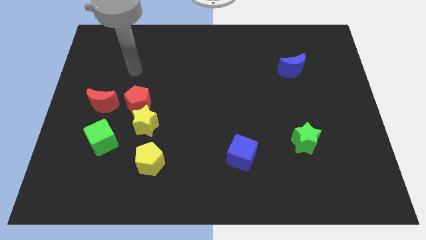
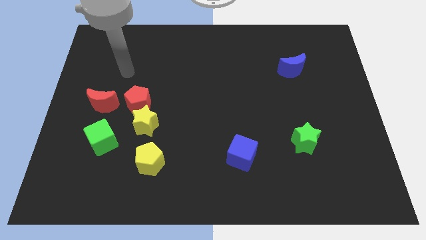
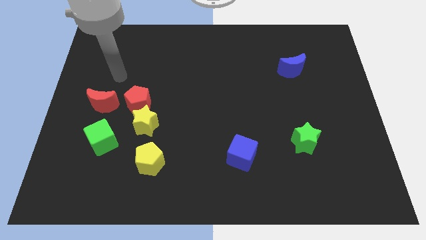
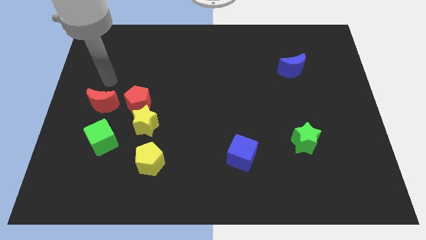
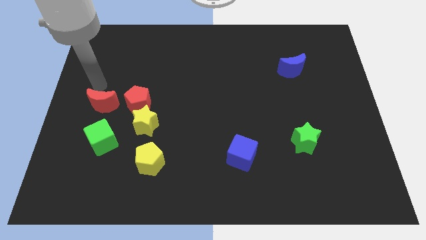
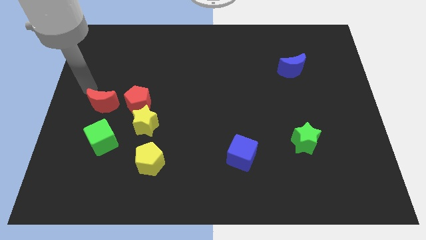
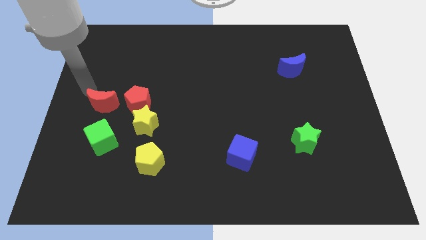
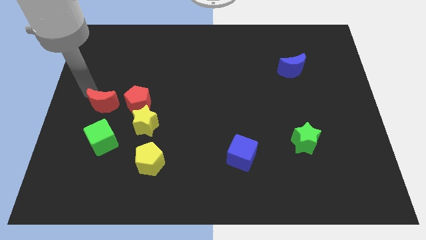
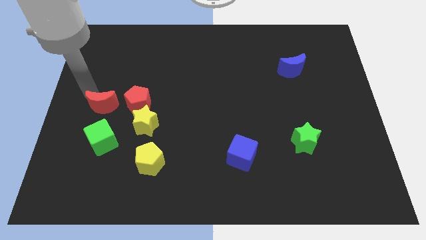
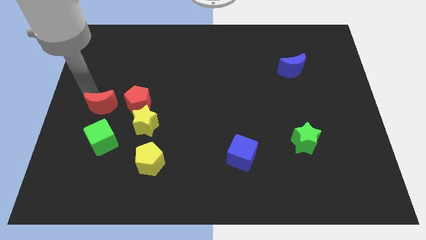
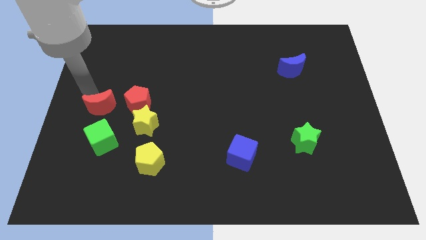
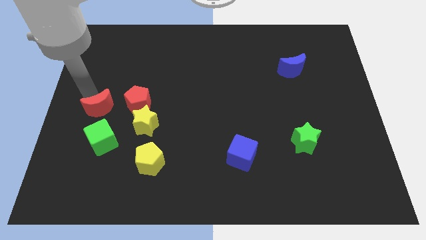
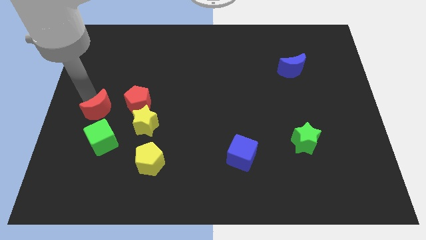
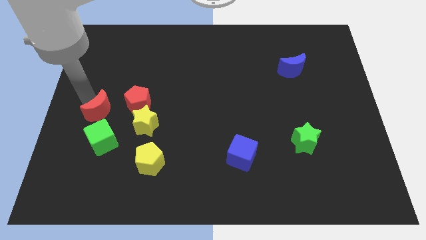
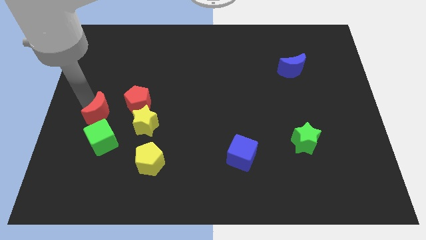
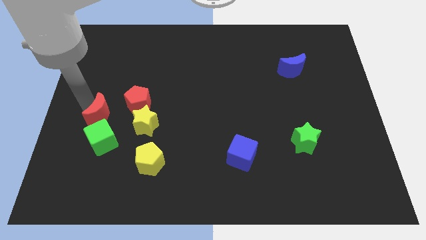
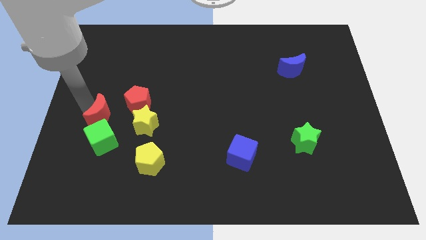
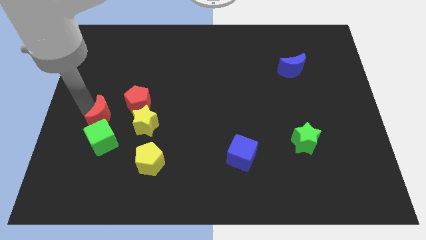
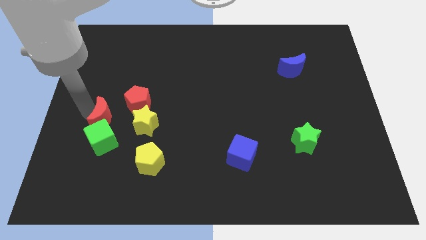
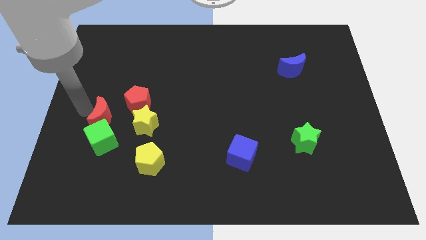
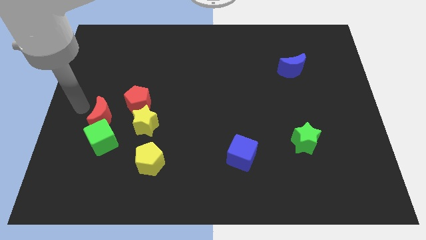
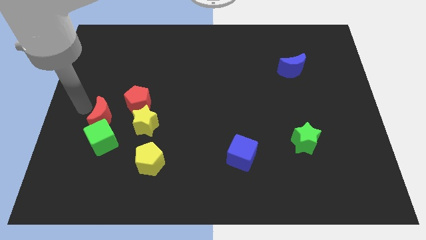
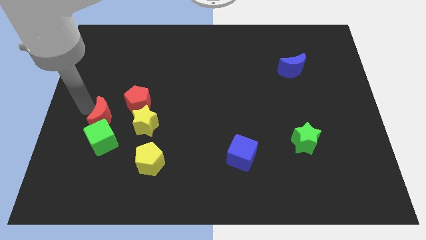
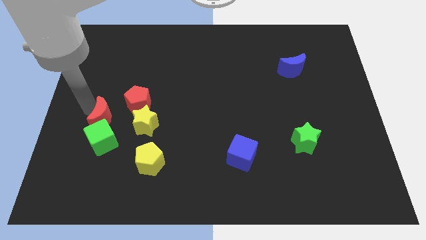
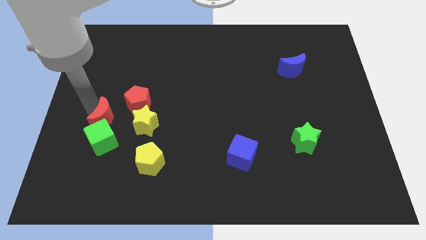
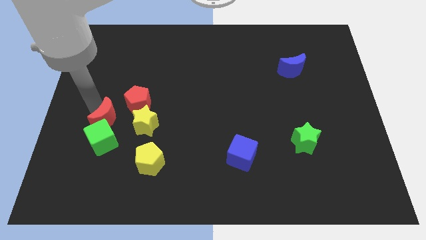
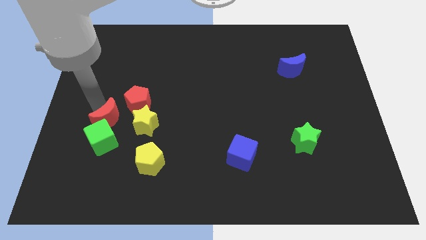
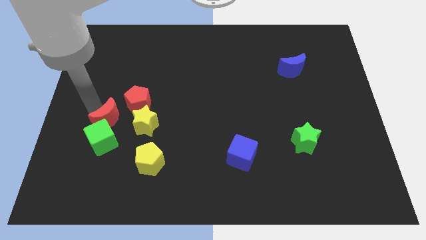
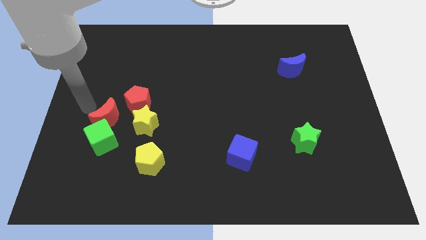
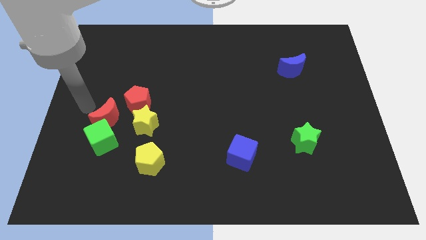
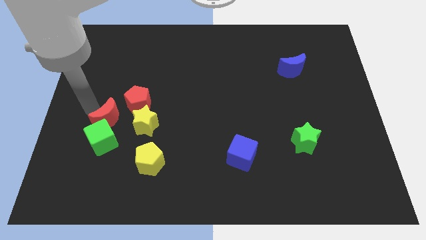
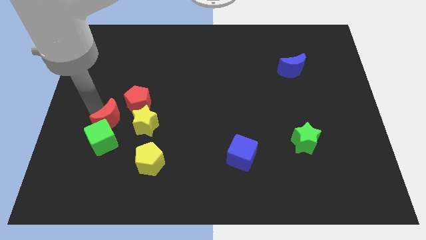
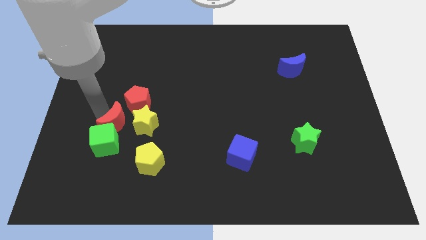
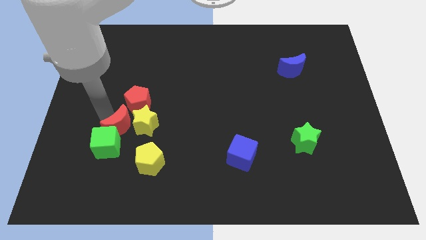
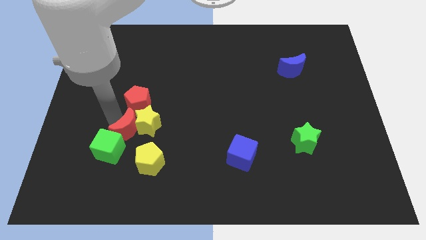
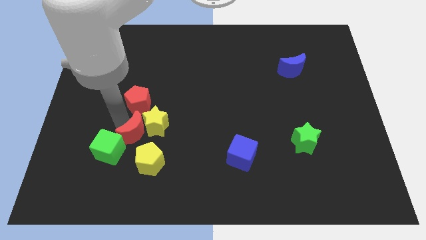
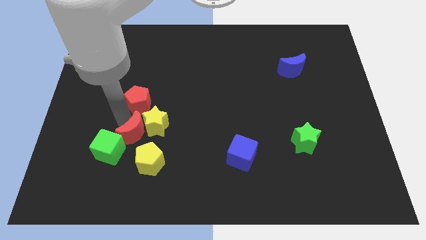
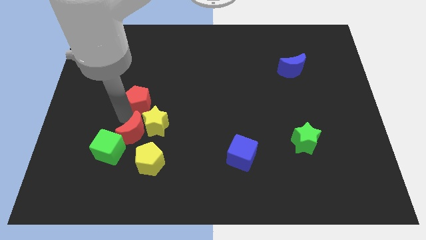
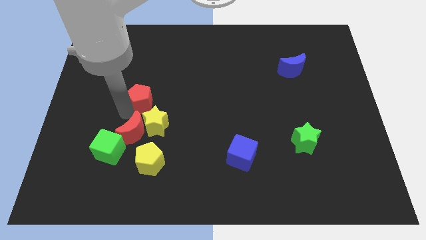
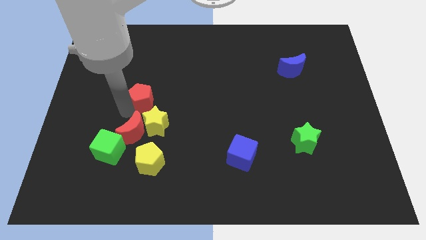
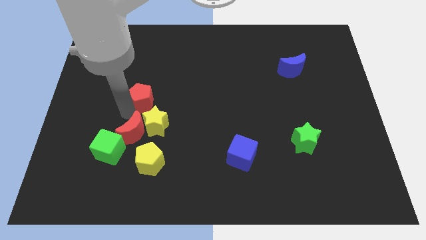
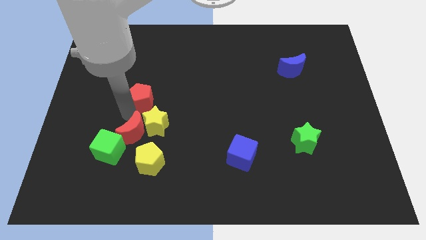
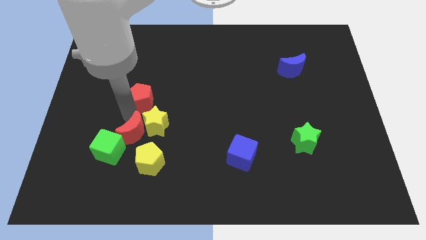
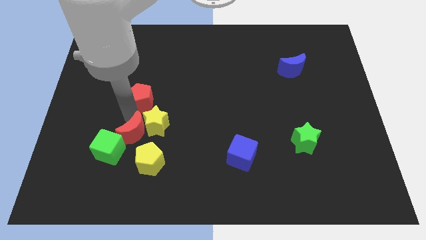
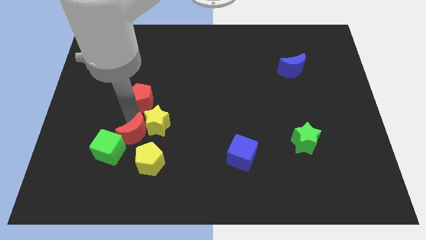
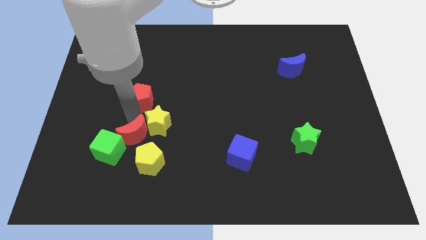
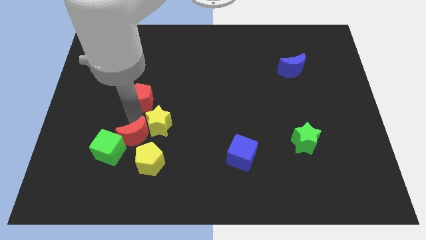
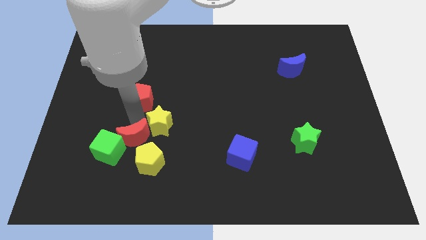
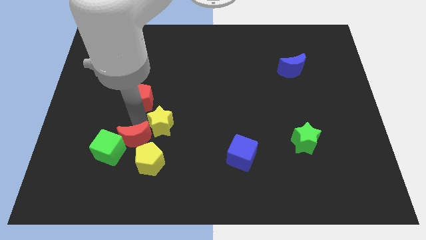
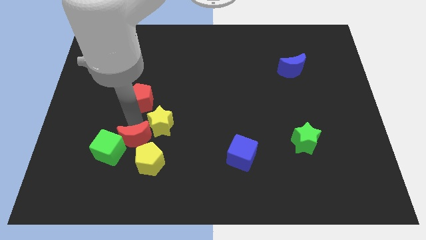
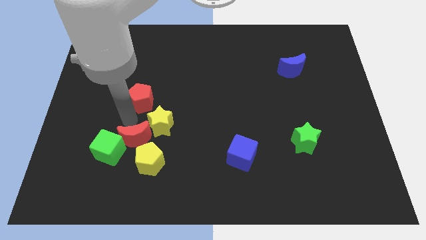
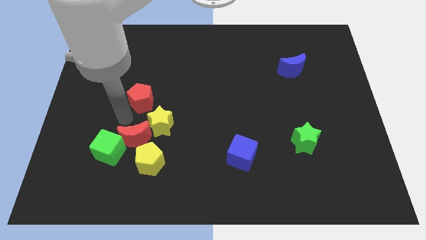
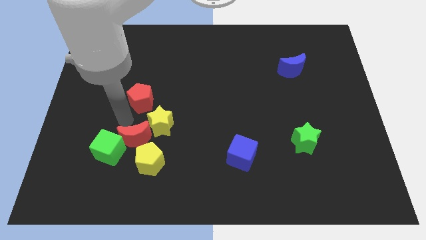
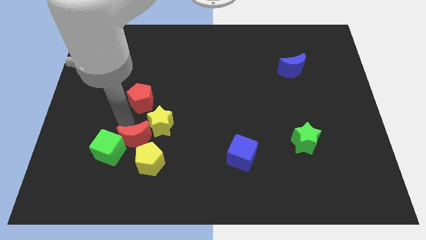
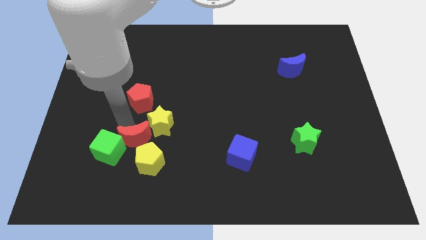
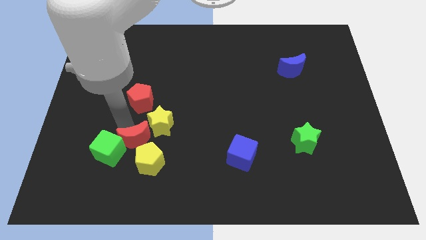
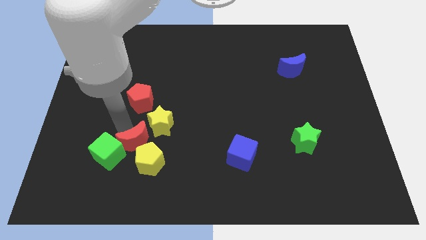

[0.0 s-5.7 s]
push the red moon to the yellow pentagon

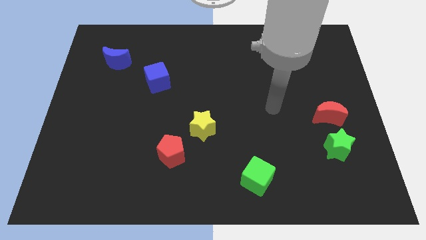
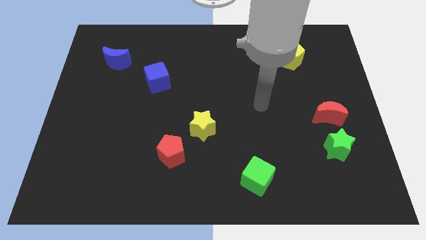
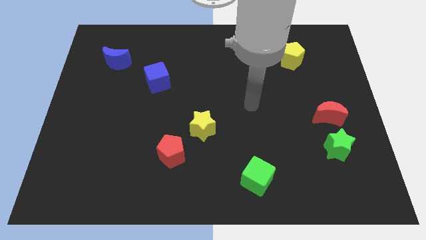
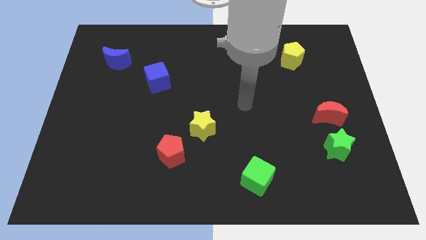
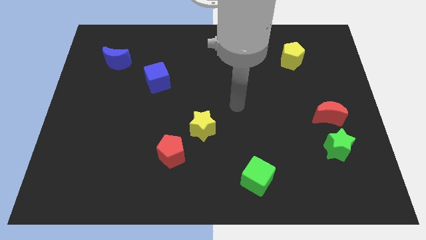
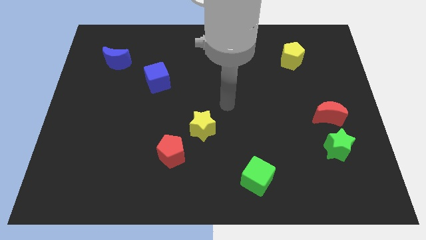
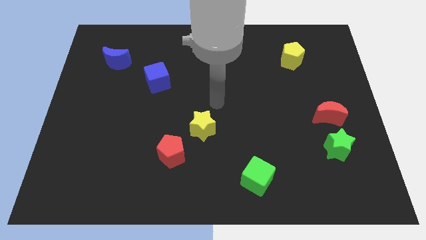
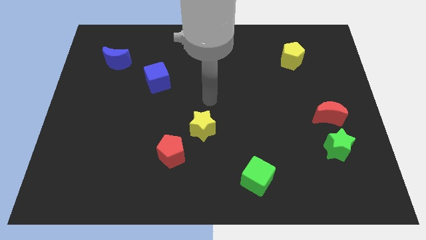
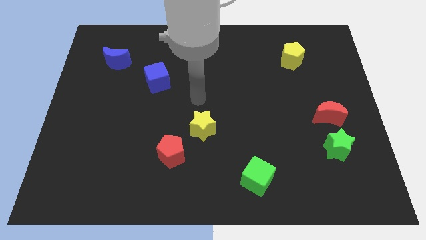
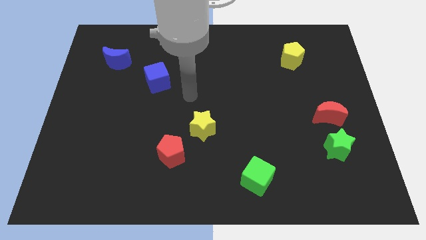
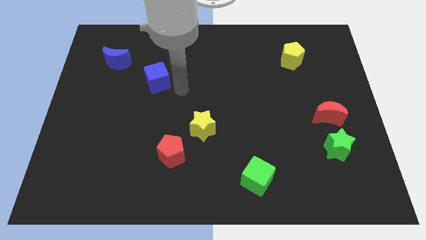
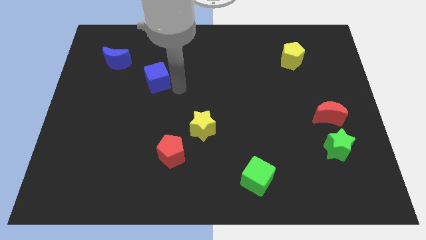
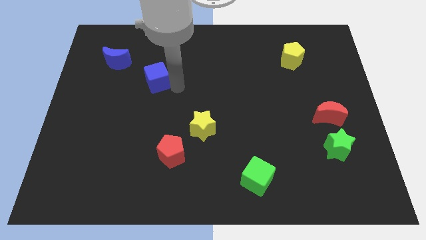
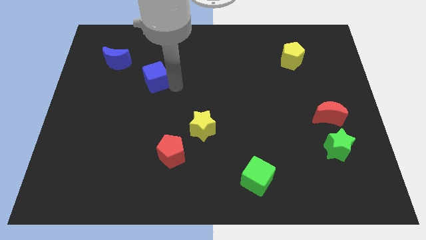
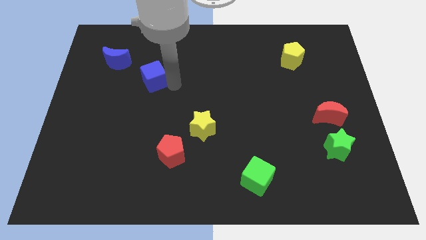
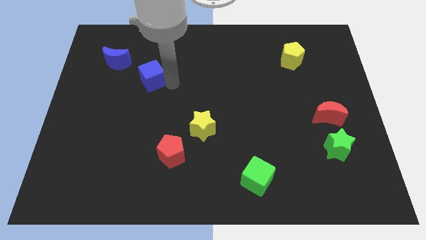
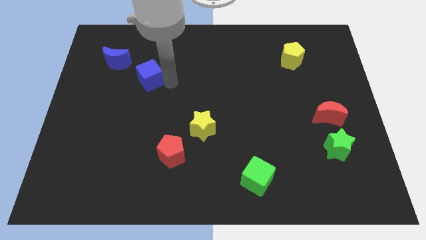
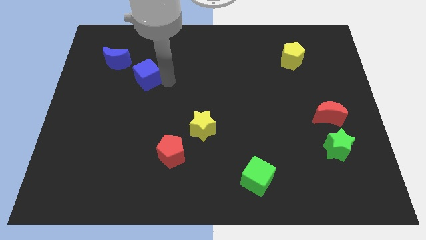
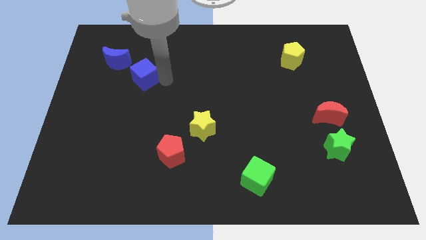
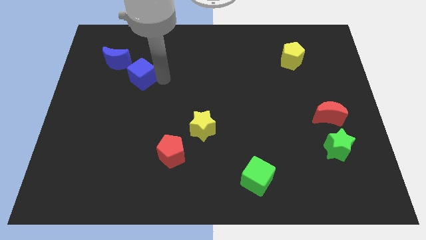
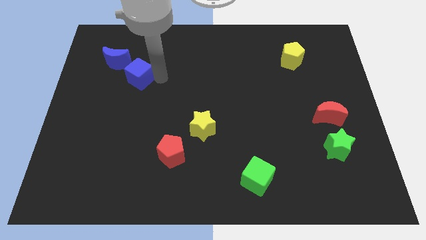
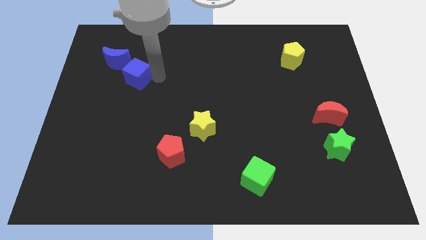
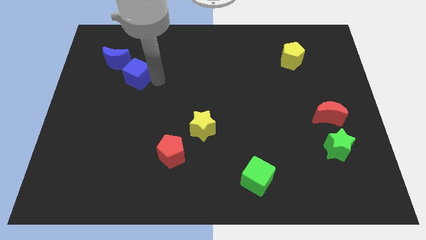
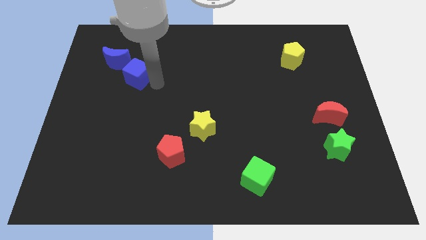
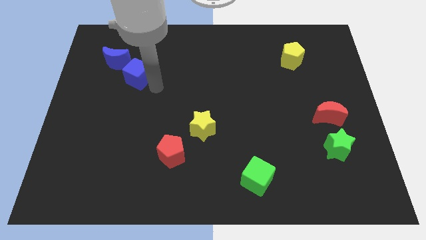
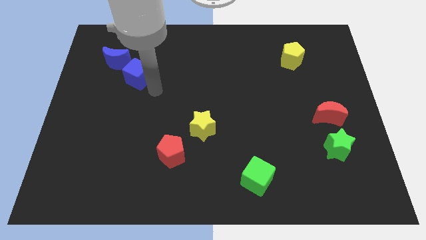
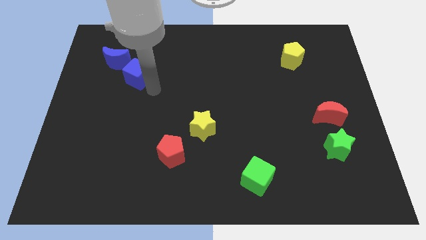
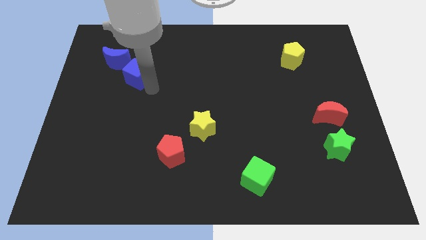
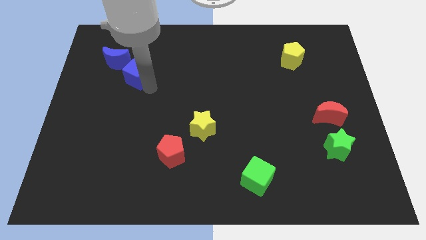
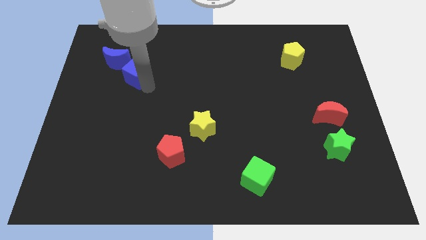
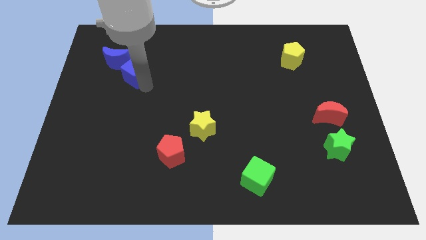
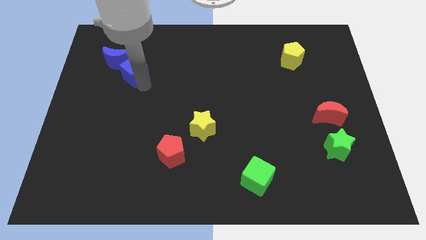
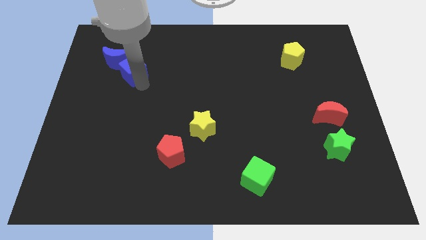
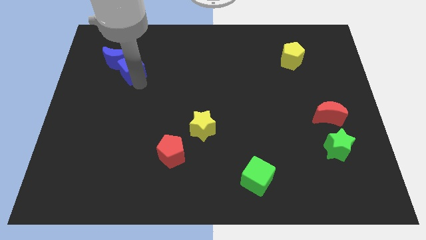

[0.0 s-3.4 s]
put the blue cube close to the blue moon
